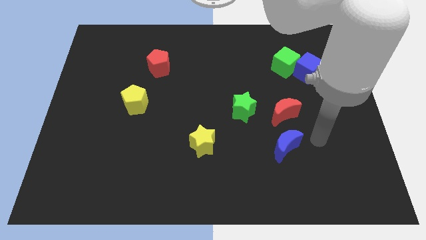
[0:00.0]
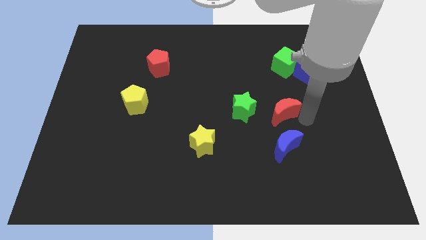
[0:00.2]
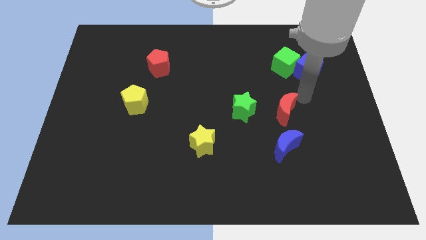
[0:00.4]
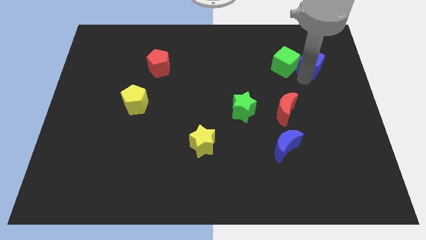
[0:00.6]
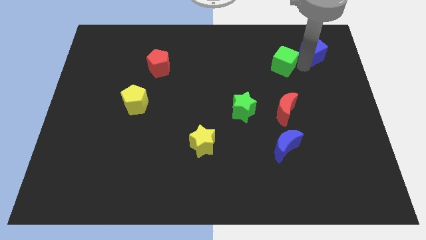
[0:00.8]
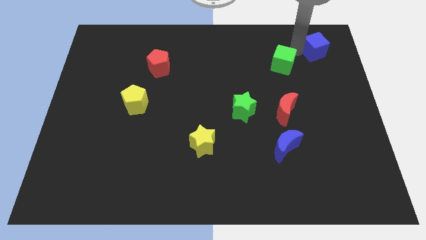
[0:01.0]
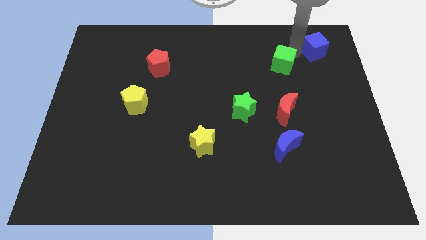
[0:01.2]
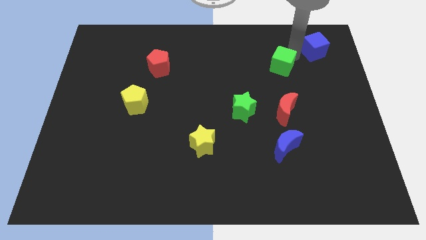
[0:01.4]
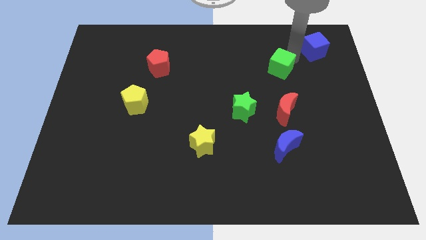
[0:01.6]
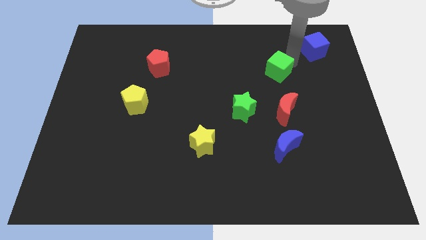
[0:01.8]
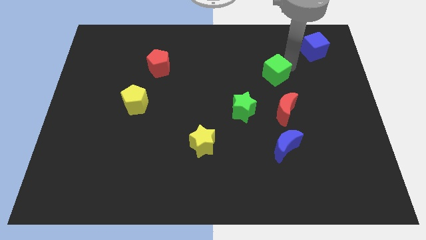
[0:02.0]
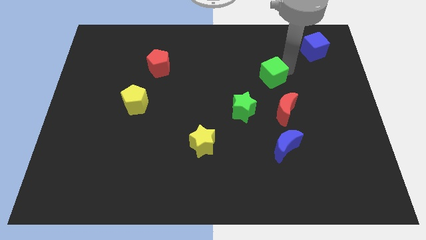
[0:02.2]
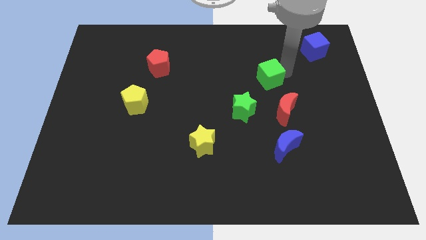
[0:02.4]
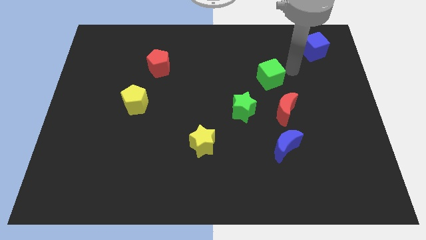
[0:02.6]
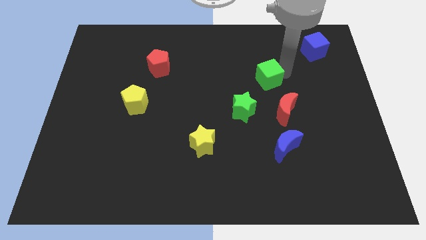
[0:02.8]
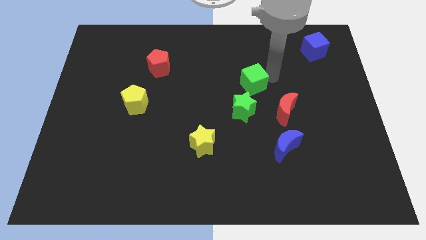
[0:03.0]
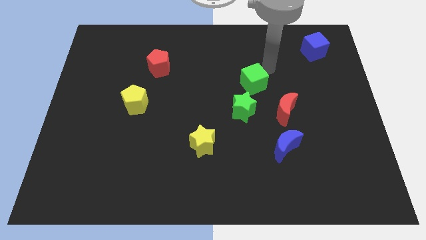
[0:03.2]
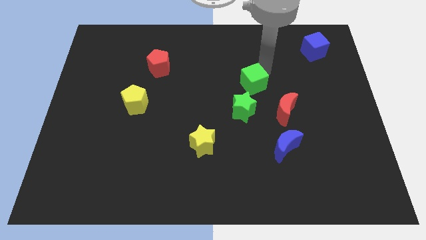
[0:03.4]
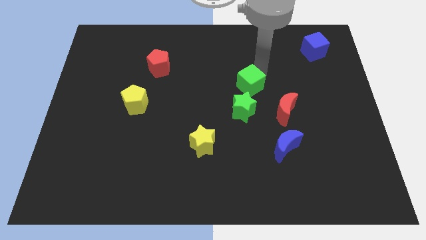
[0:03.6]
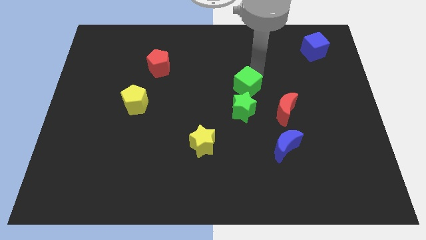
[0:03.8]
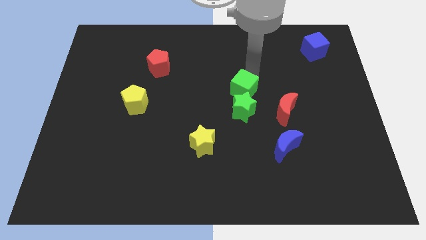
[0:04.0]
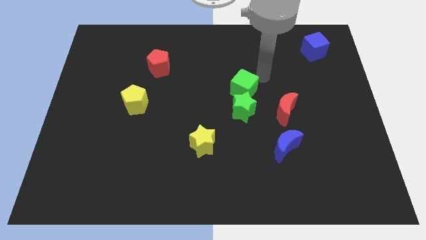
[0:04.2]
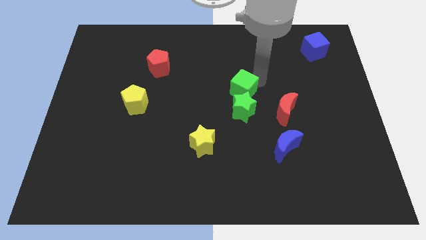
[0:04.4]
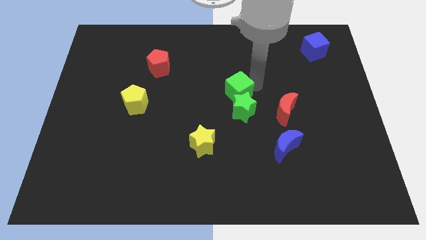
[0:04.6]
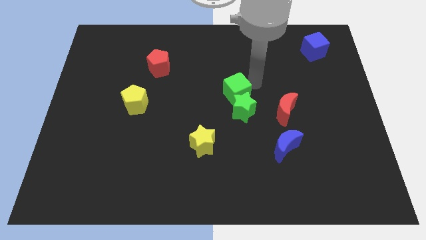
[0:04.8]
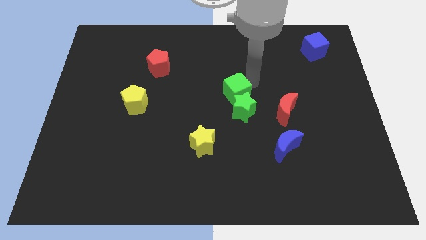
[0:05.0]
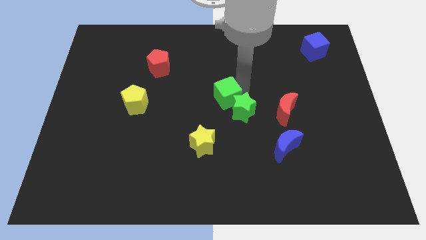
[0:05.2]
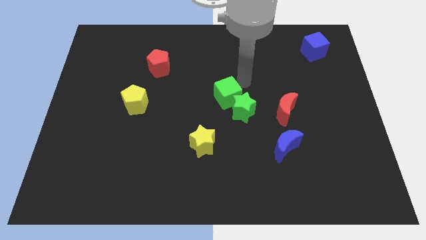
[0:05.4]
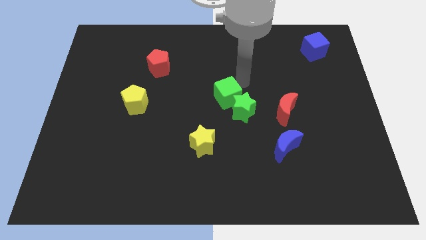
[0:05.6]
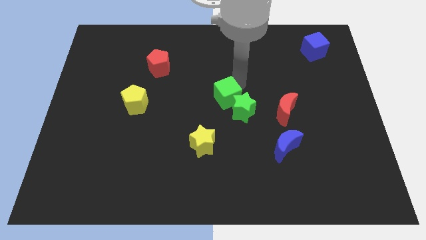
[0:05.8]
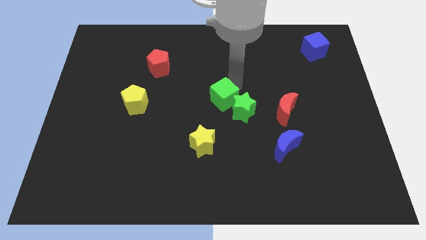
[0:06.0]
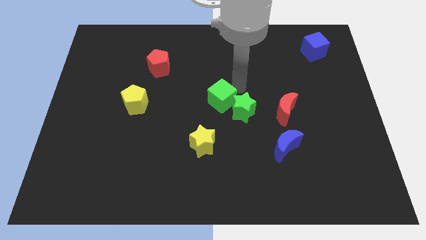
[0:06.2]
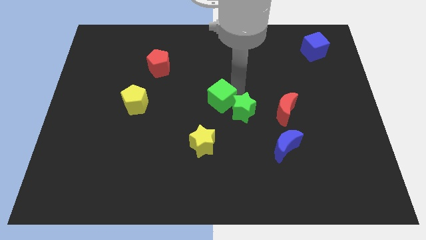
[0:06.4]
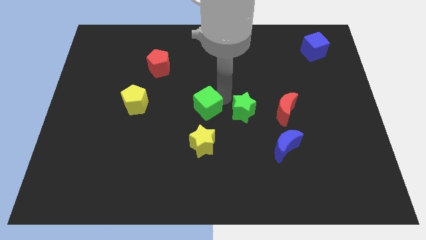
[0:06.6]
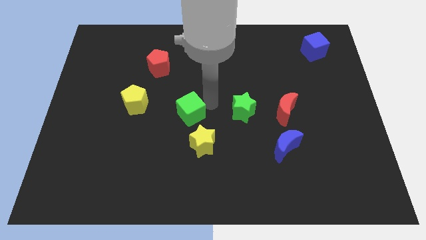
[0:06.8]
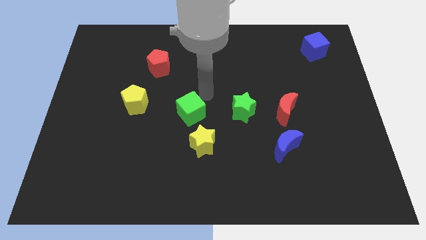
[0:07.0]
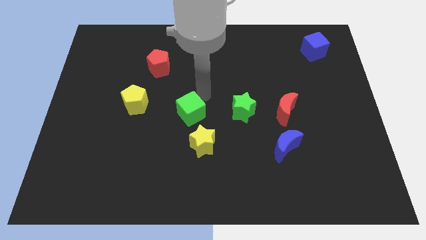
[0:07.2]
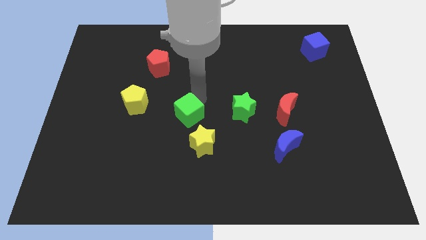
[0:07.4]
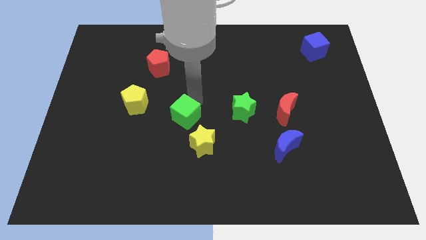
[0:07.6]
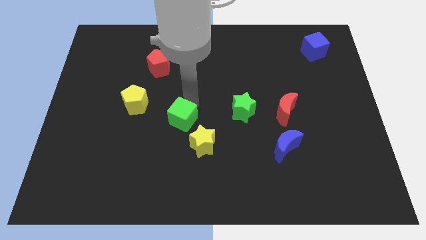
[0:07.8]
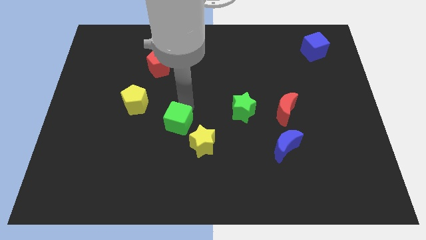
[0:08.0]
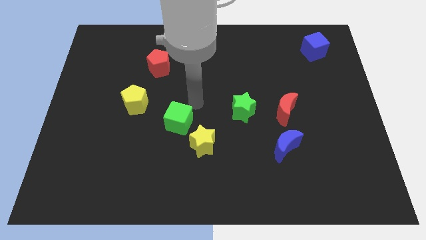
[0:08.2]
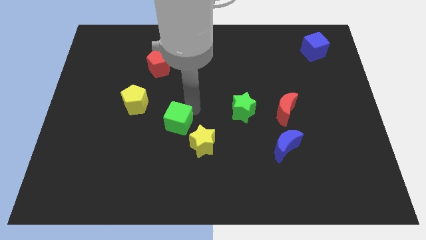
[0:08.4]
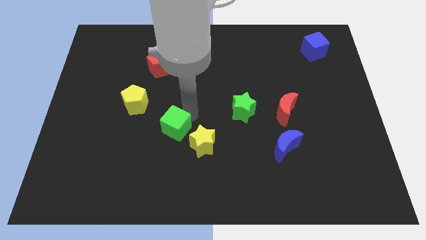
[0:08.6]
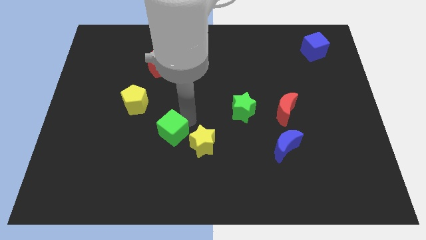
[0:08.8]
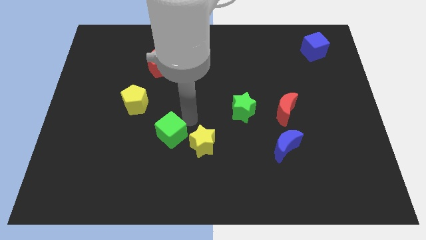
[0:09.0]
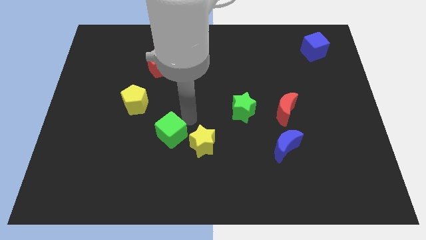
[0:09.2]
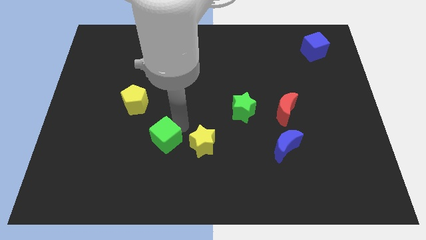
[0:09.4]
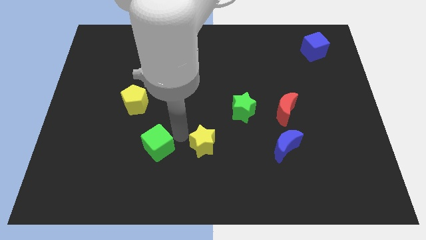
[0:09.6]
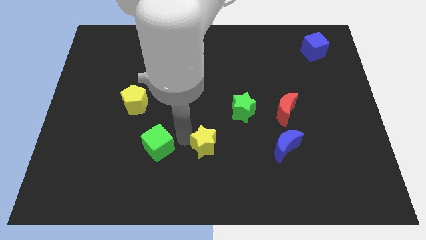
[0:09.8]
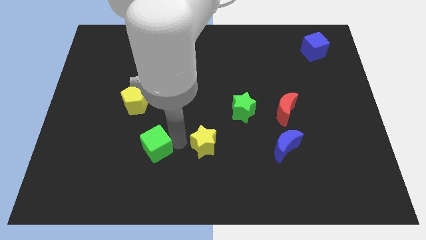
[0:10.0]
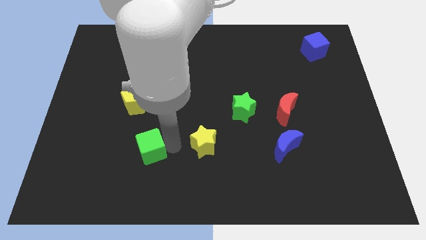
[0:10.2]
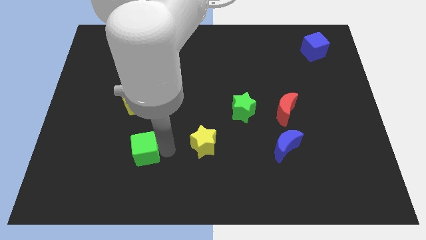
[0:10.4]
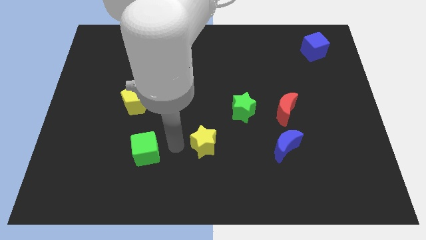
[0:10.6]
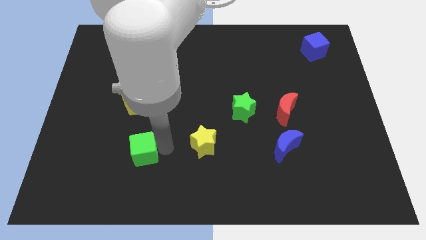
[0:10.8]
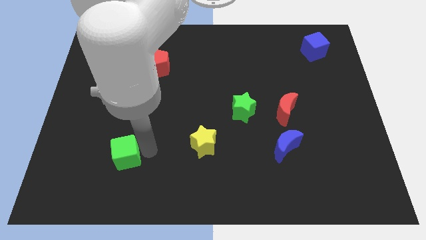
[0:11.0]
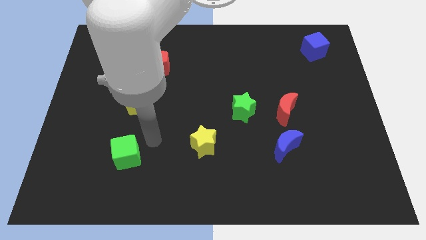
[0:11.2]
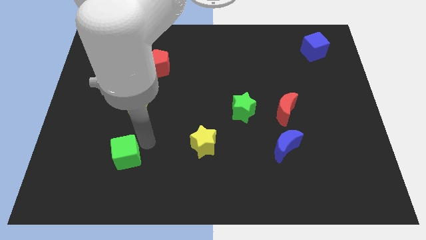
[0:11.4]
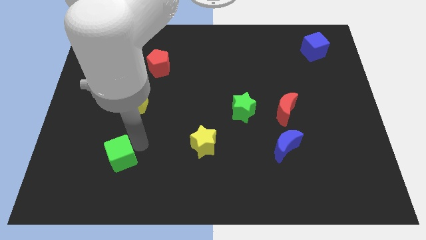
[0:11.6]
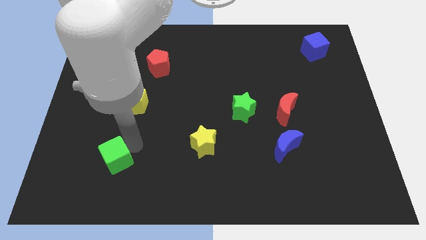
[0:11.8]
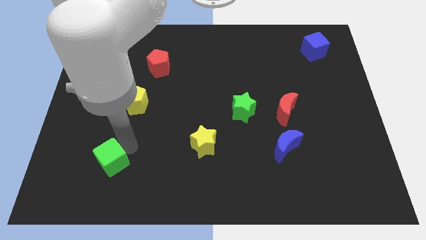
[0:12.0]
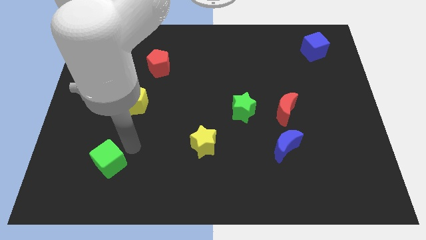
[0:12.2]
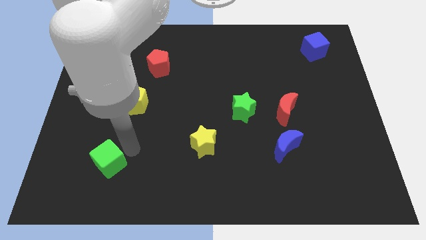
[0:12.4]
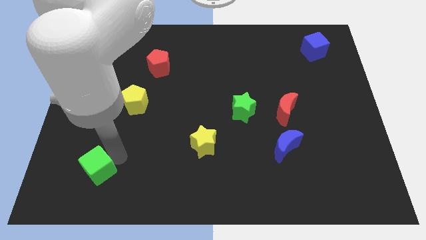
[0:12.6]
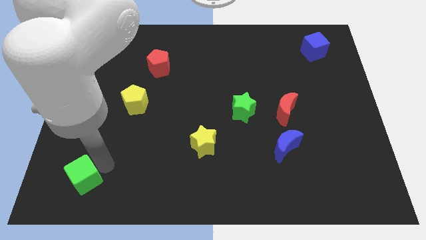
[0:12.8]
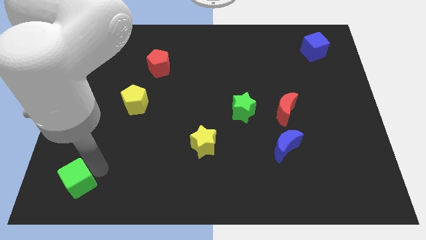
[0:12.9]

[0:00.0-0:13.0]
put the green cube to the lower left corner
